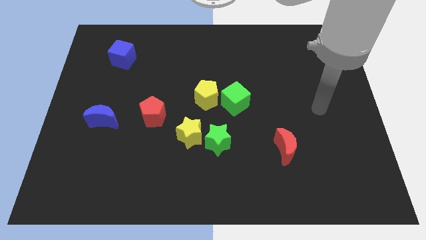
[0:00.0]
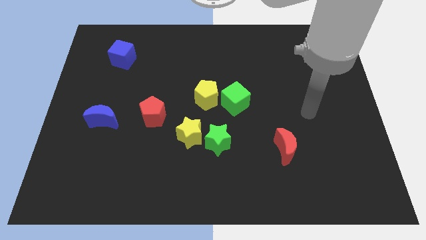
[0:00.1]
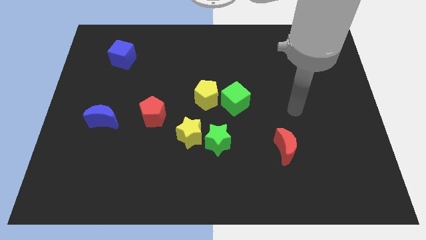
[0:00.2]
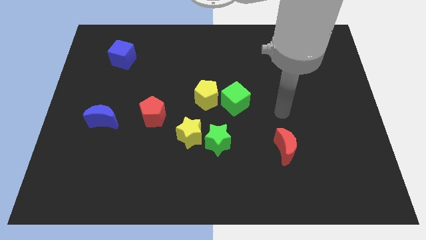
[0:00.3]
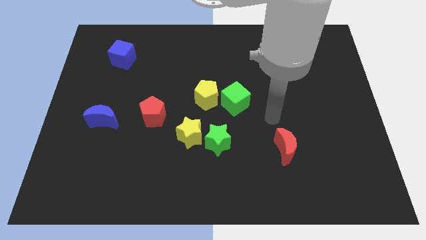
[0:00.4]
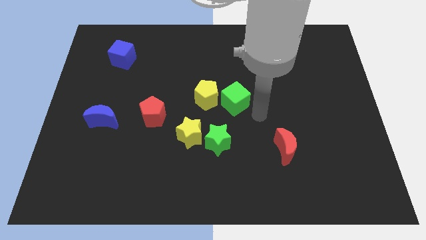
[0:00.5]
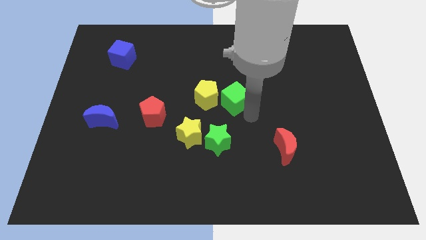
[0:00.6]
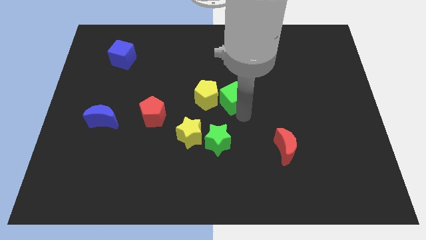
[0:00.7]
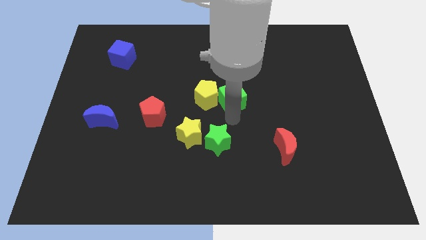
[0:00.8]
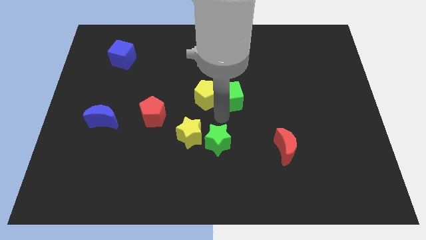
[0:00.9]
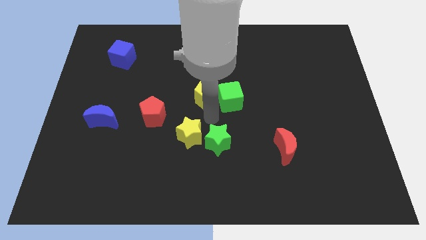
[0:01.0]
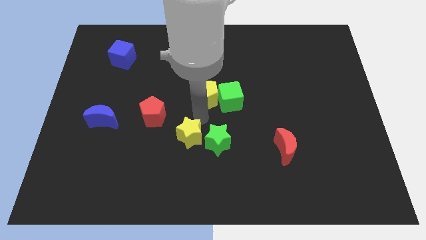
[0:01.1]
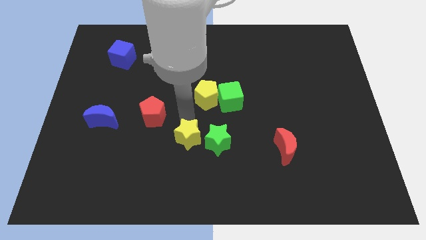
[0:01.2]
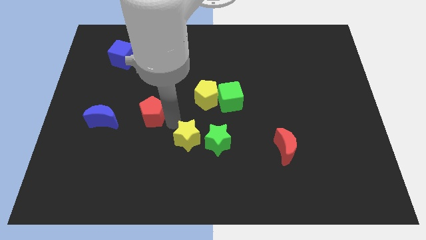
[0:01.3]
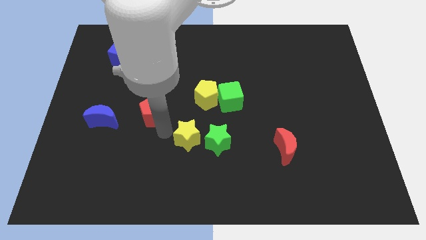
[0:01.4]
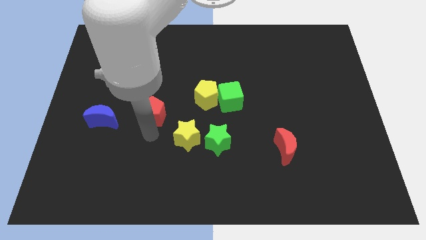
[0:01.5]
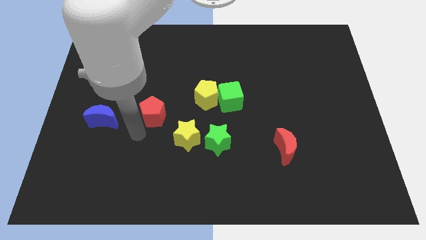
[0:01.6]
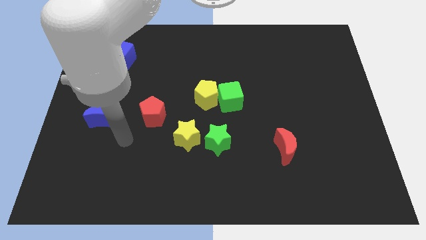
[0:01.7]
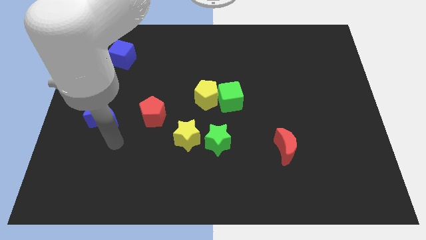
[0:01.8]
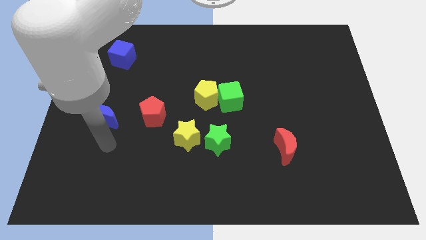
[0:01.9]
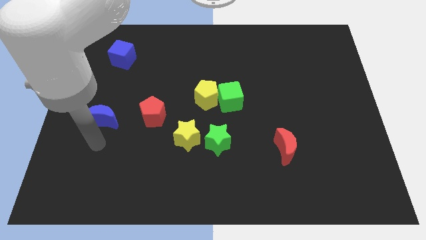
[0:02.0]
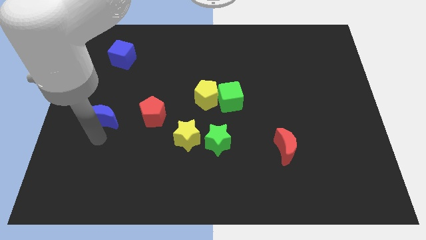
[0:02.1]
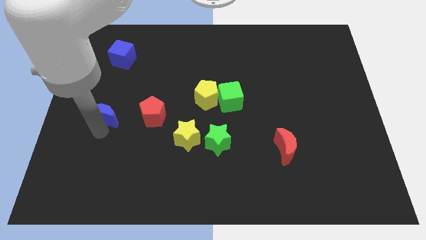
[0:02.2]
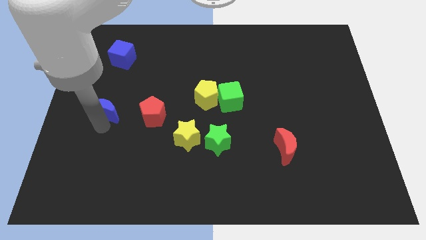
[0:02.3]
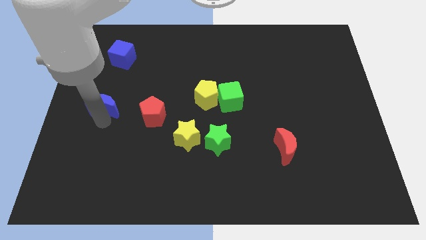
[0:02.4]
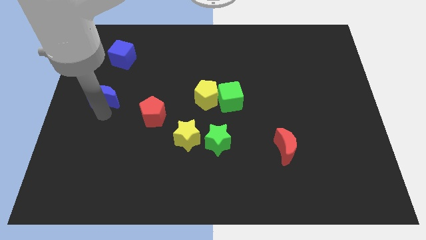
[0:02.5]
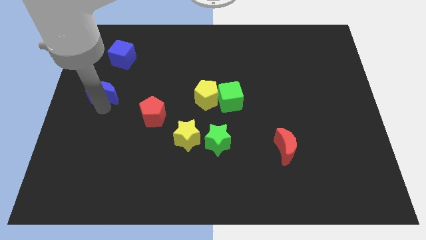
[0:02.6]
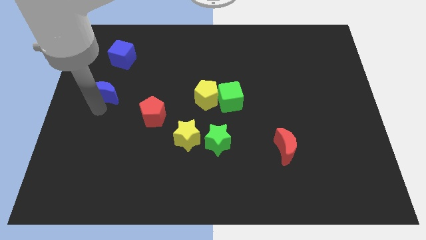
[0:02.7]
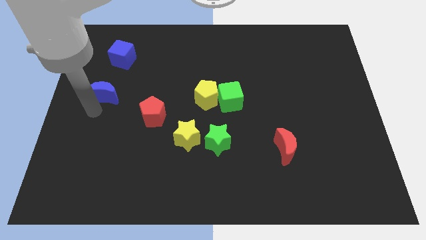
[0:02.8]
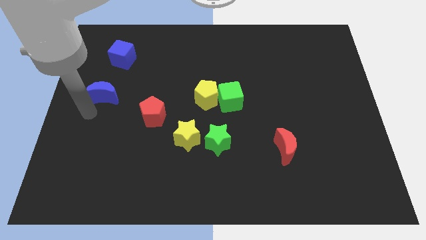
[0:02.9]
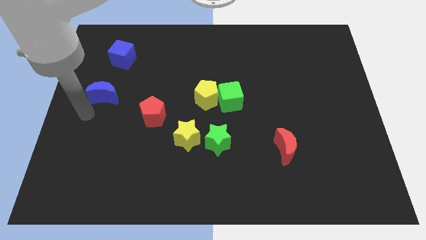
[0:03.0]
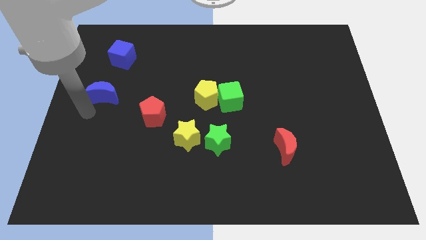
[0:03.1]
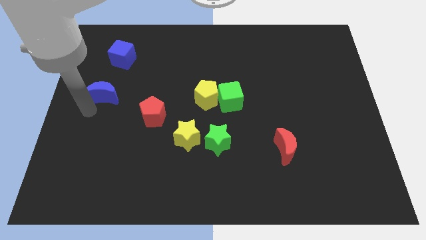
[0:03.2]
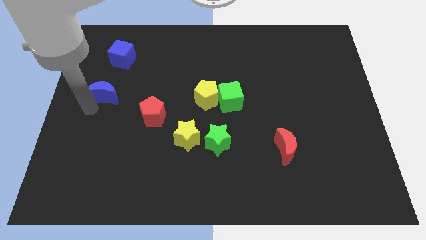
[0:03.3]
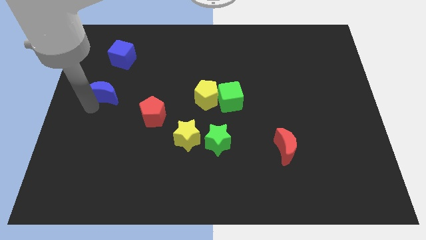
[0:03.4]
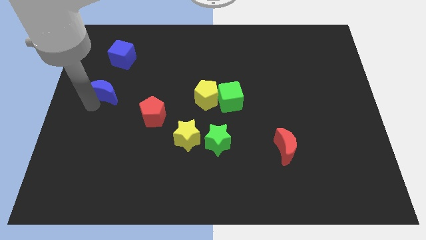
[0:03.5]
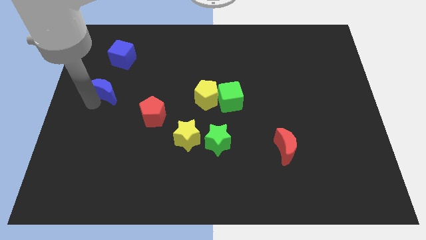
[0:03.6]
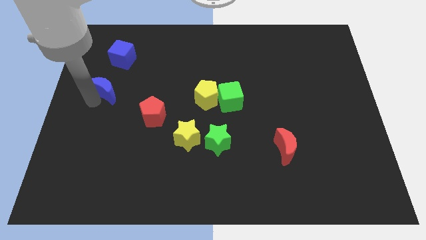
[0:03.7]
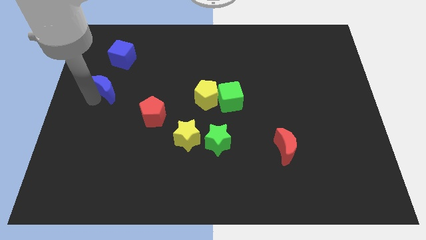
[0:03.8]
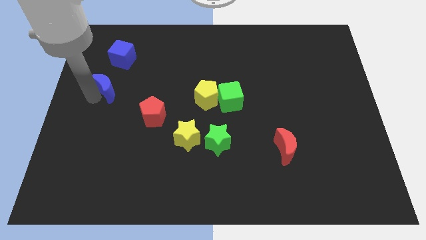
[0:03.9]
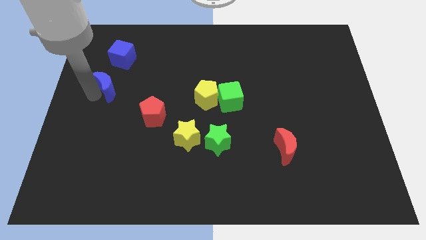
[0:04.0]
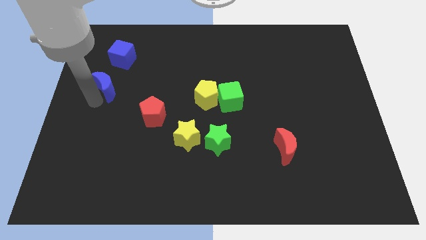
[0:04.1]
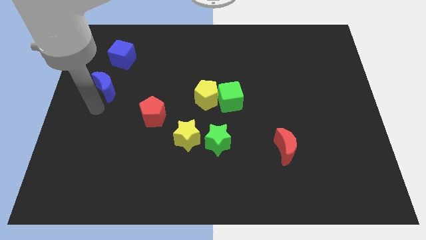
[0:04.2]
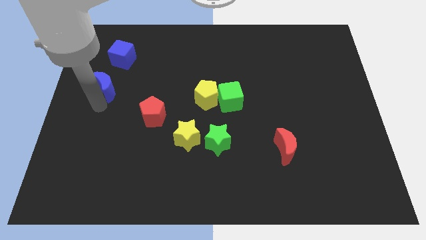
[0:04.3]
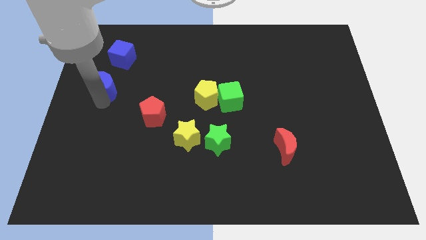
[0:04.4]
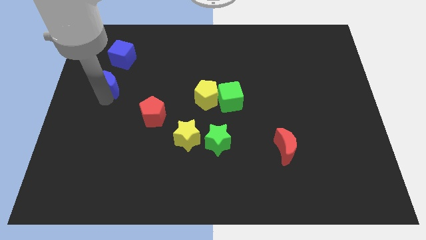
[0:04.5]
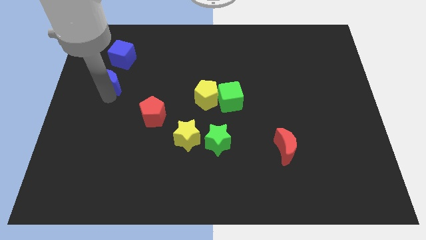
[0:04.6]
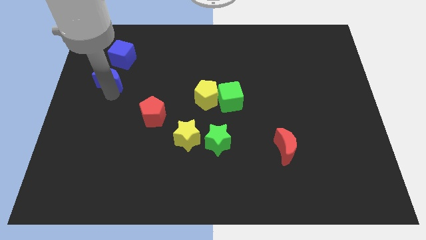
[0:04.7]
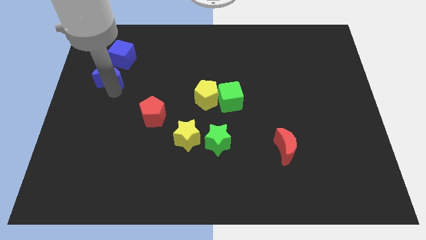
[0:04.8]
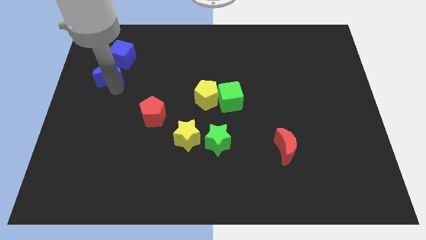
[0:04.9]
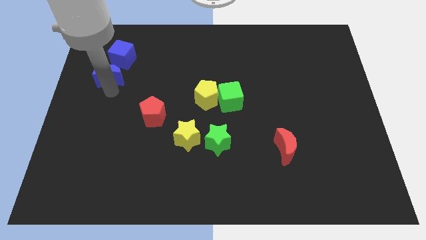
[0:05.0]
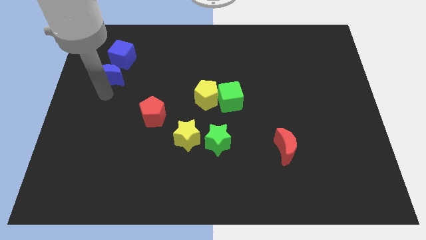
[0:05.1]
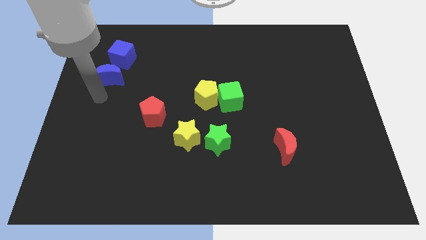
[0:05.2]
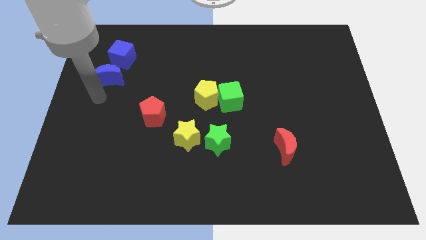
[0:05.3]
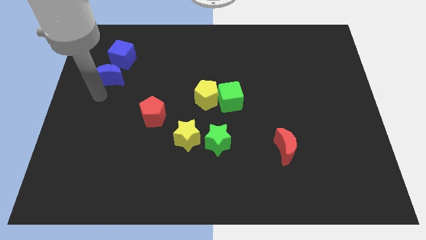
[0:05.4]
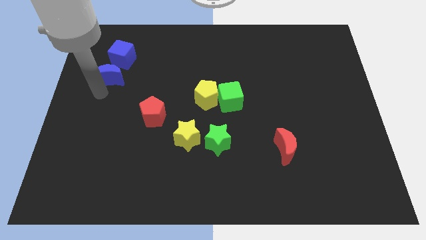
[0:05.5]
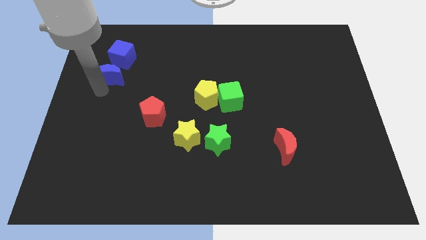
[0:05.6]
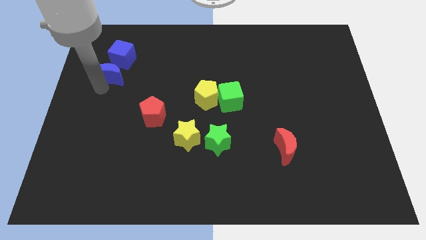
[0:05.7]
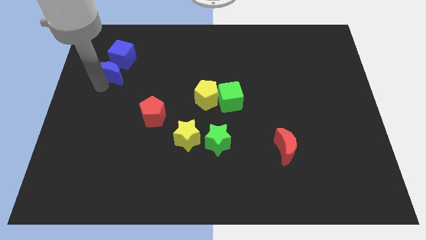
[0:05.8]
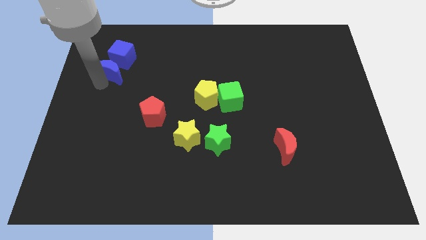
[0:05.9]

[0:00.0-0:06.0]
push the blue moon towards the blue cube

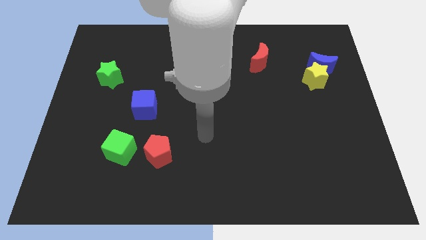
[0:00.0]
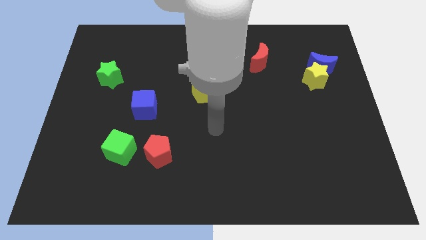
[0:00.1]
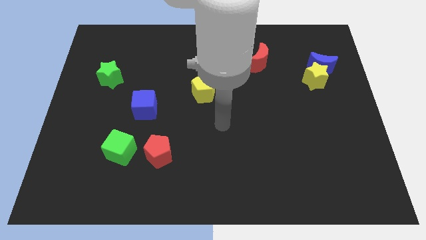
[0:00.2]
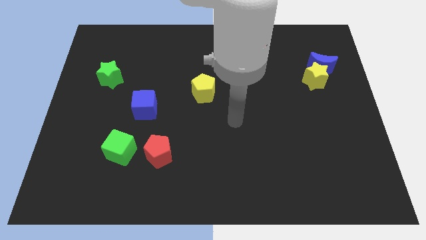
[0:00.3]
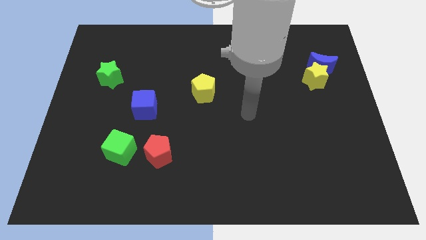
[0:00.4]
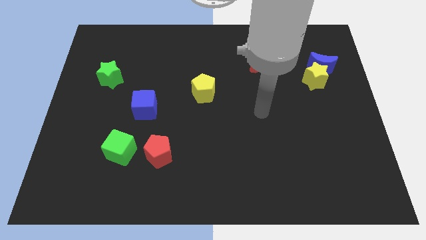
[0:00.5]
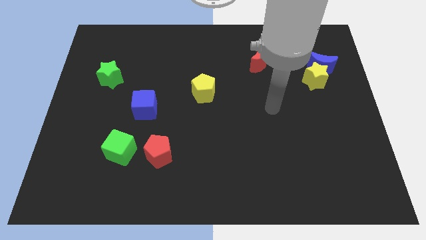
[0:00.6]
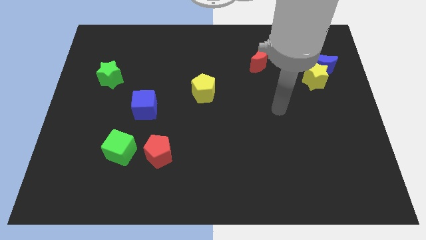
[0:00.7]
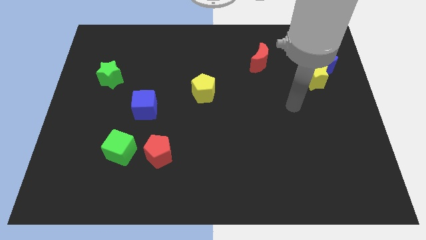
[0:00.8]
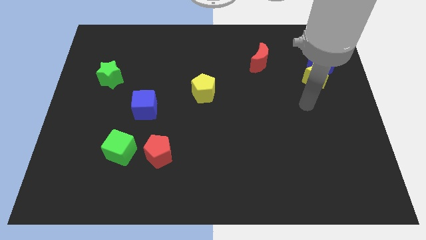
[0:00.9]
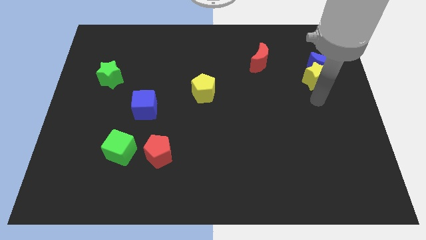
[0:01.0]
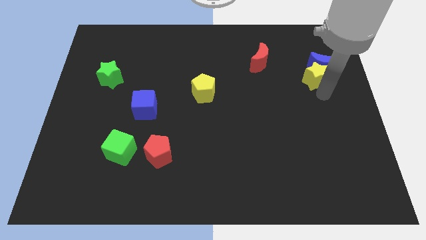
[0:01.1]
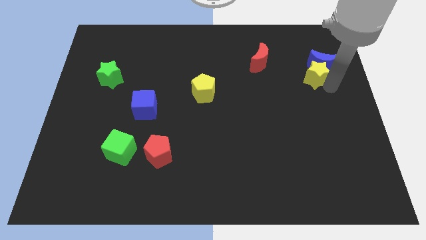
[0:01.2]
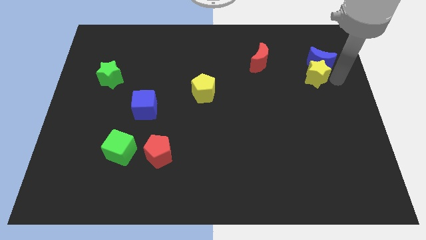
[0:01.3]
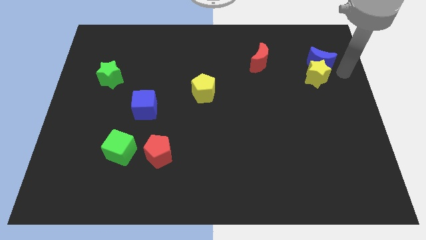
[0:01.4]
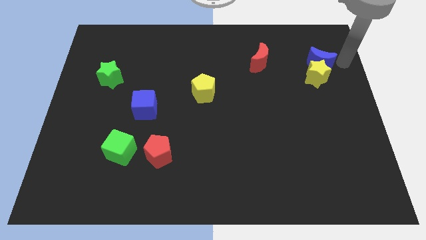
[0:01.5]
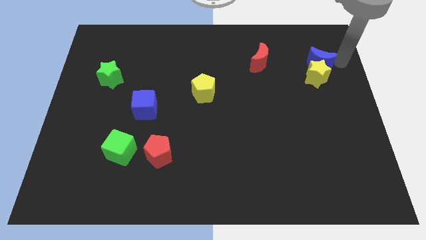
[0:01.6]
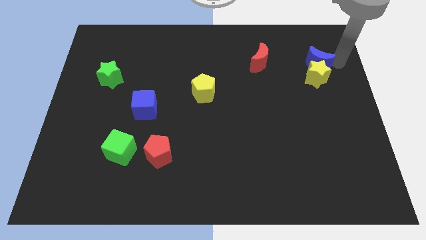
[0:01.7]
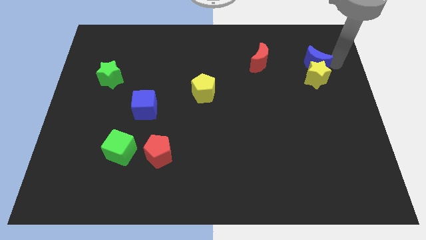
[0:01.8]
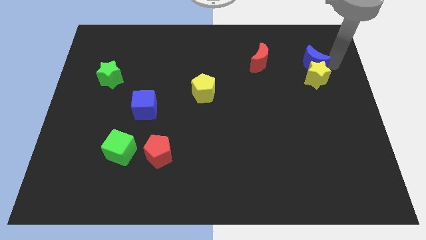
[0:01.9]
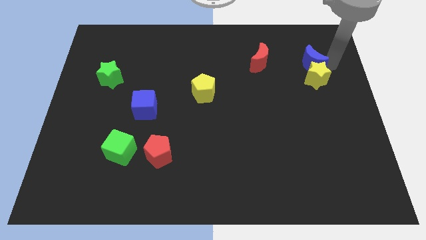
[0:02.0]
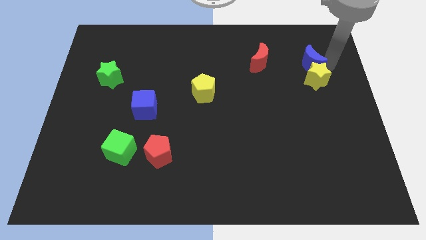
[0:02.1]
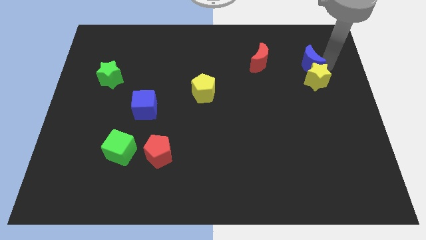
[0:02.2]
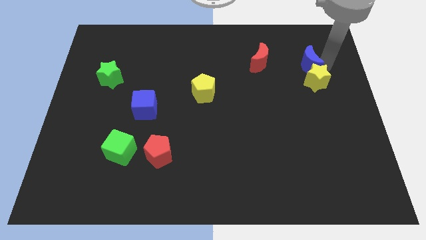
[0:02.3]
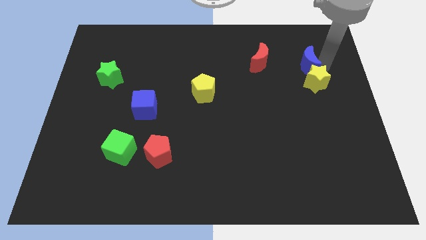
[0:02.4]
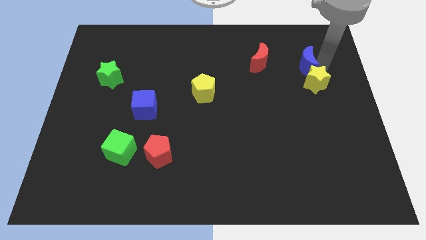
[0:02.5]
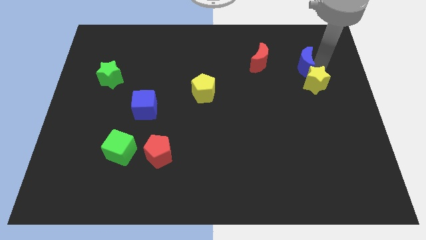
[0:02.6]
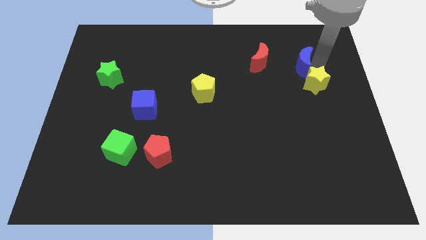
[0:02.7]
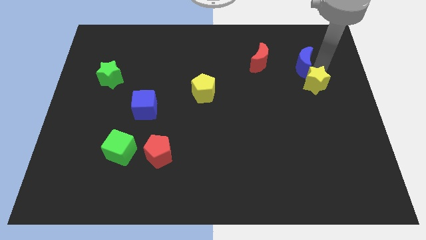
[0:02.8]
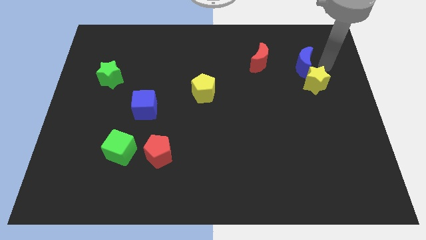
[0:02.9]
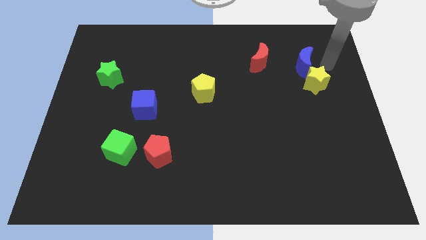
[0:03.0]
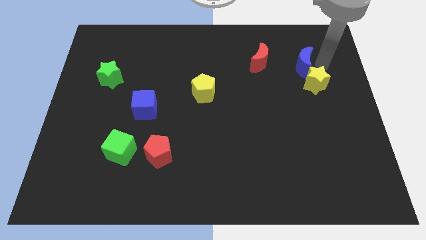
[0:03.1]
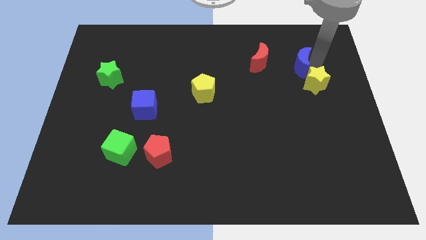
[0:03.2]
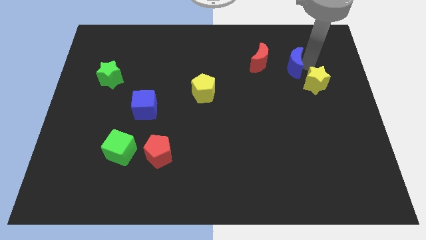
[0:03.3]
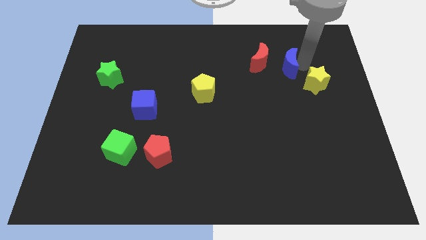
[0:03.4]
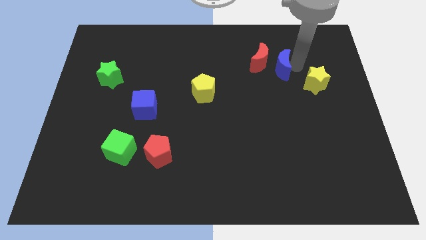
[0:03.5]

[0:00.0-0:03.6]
move the blue moon close to the red moon
